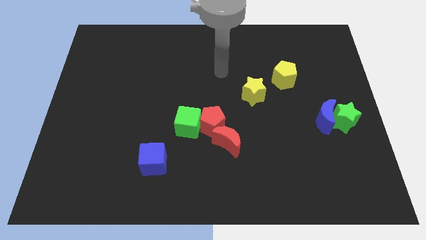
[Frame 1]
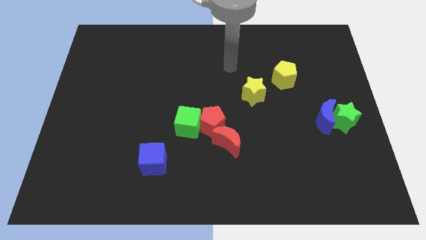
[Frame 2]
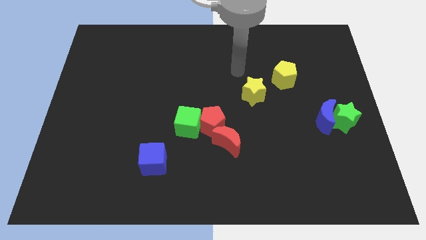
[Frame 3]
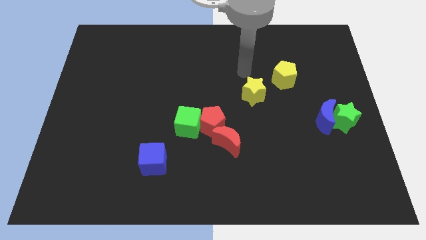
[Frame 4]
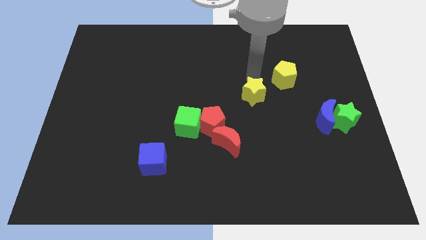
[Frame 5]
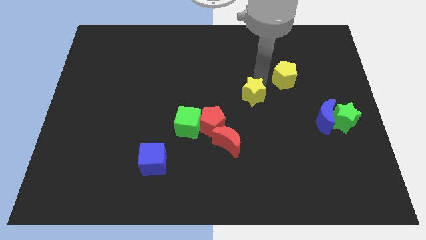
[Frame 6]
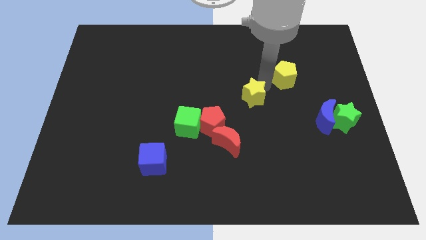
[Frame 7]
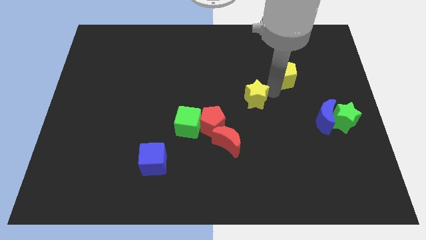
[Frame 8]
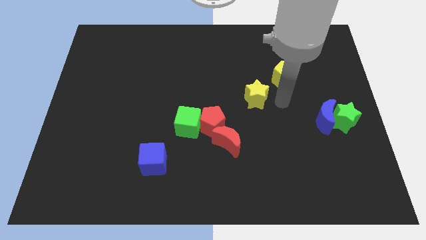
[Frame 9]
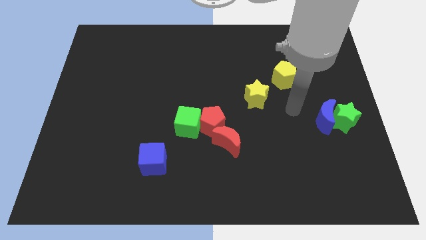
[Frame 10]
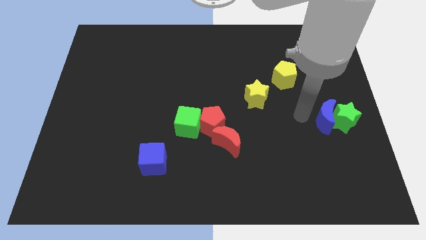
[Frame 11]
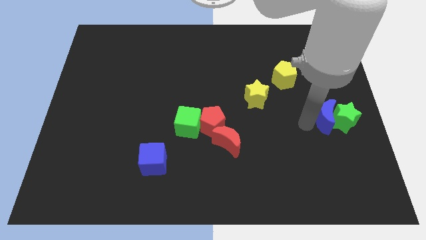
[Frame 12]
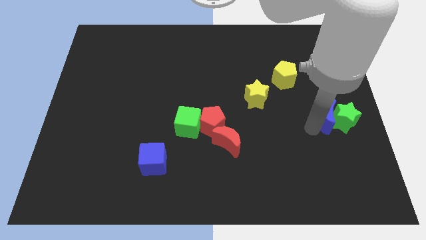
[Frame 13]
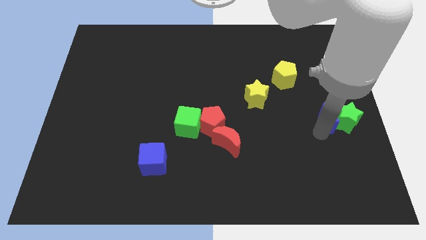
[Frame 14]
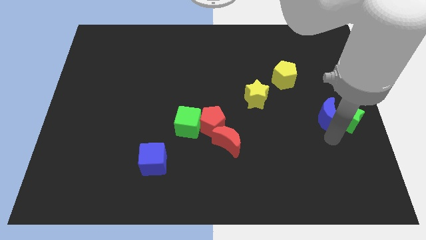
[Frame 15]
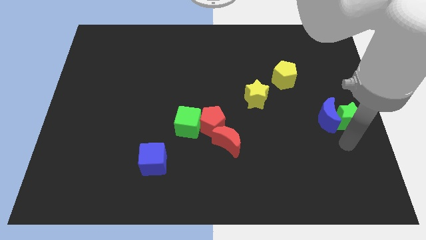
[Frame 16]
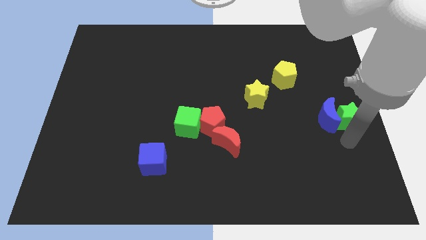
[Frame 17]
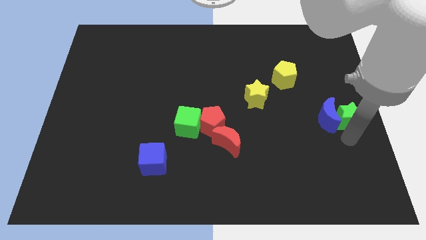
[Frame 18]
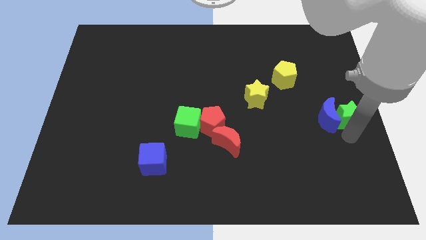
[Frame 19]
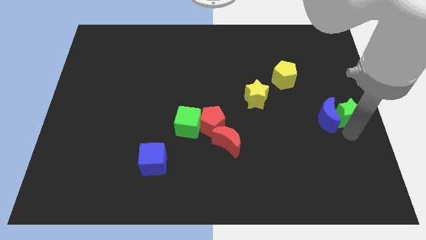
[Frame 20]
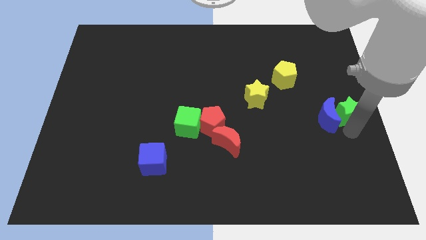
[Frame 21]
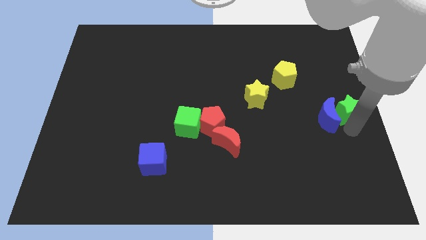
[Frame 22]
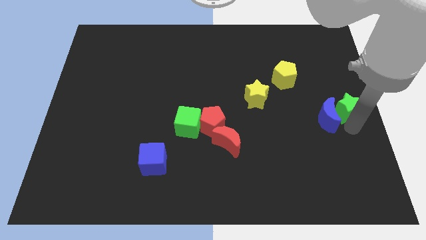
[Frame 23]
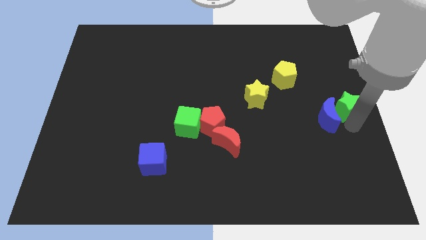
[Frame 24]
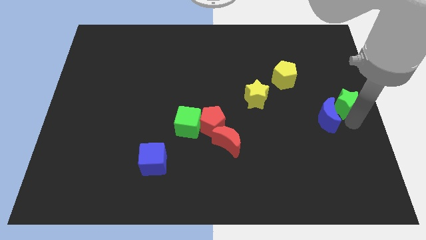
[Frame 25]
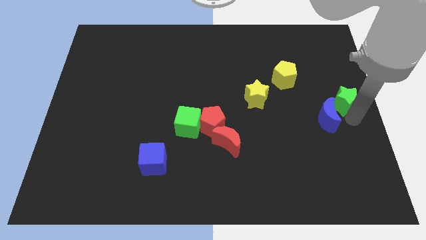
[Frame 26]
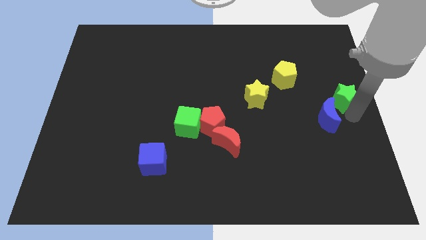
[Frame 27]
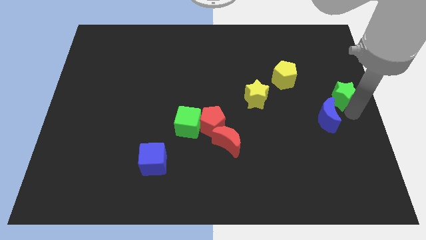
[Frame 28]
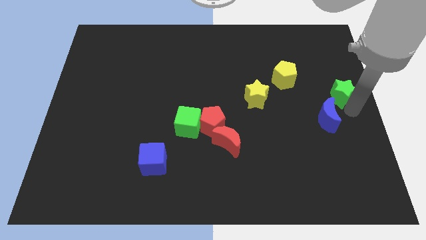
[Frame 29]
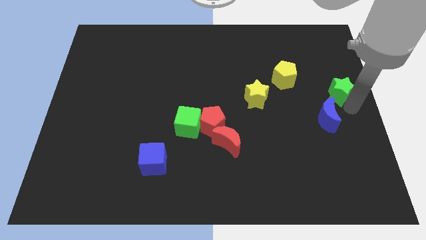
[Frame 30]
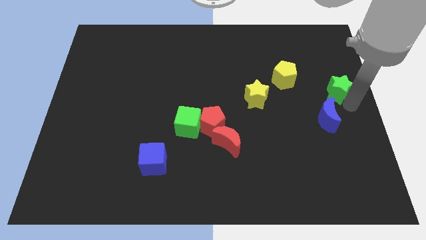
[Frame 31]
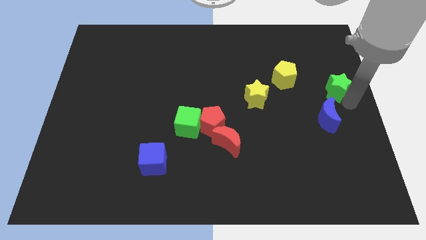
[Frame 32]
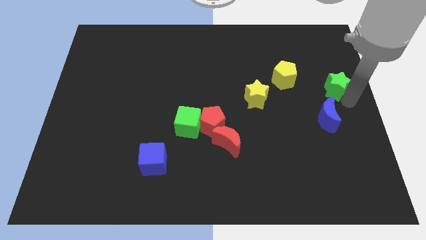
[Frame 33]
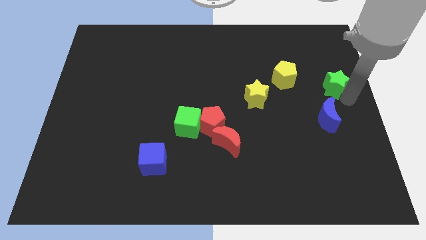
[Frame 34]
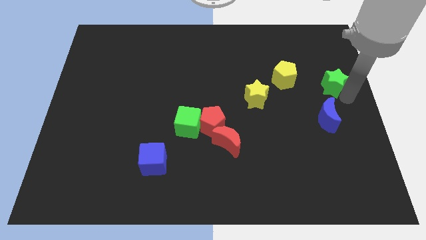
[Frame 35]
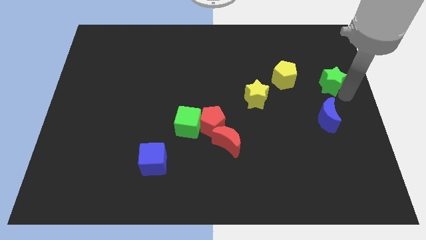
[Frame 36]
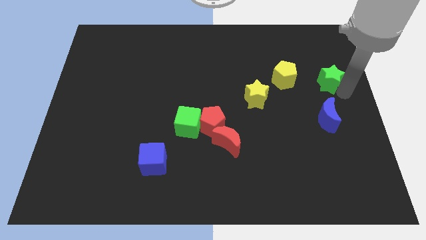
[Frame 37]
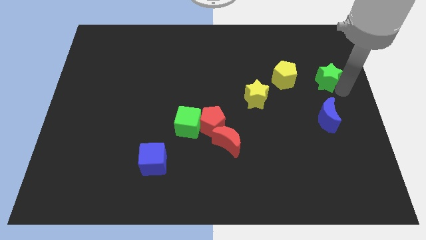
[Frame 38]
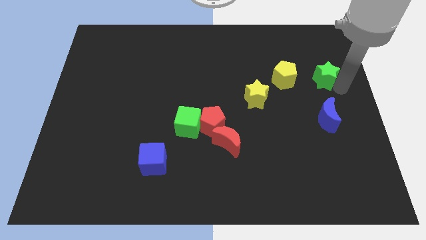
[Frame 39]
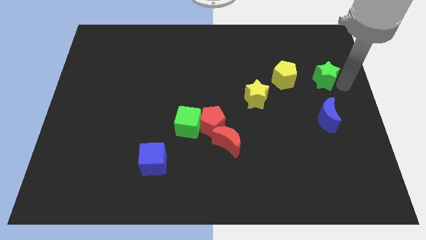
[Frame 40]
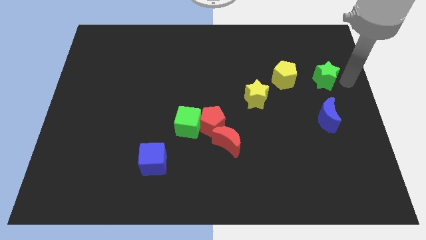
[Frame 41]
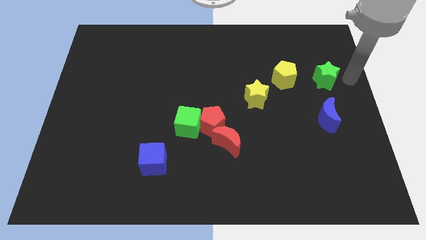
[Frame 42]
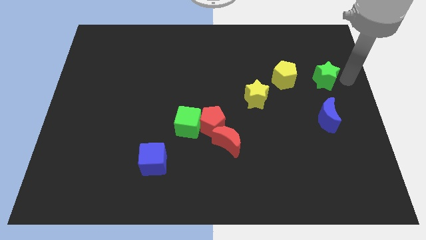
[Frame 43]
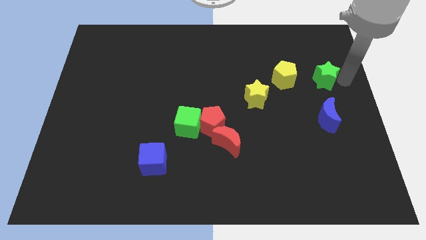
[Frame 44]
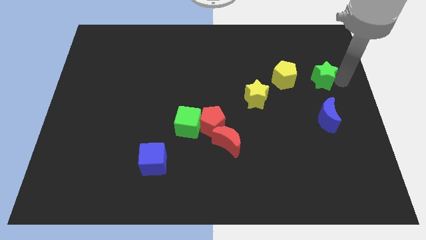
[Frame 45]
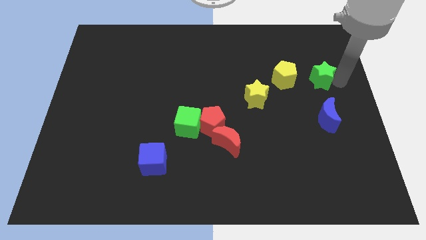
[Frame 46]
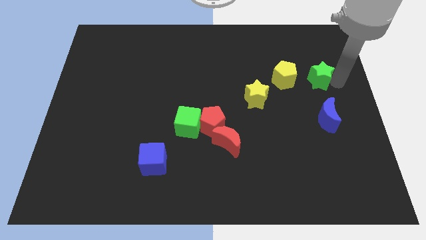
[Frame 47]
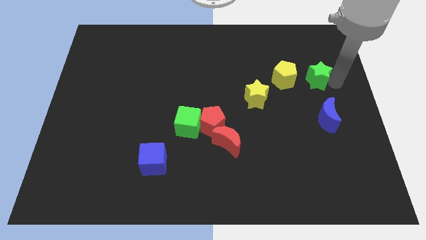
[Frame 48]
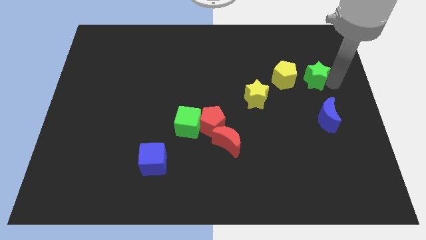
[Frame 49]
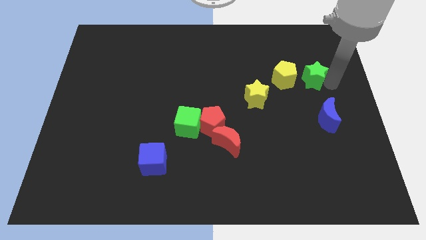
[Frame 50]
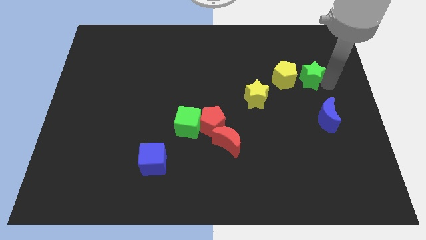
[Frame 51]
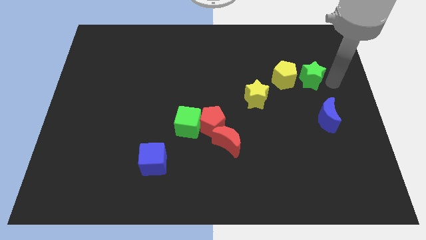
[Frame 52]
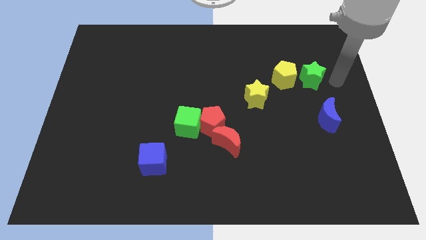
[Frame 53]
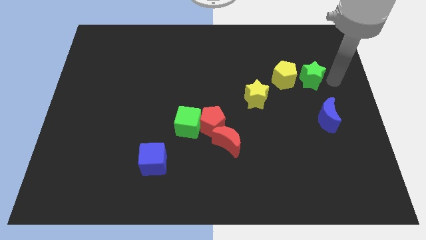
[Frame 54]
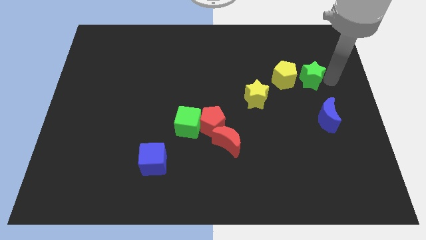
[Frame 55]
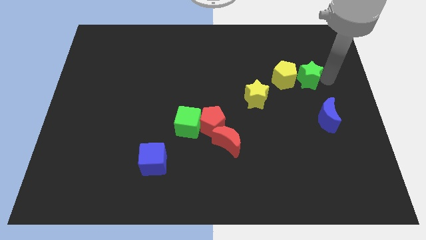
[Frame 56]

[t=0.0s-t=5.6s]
put the green star towards the yellow pentagon

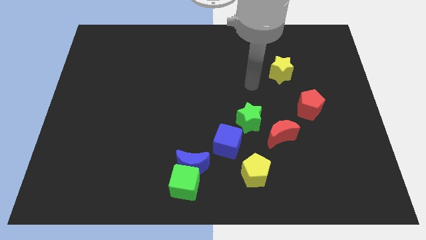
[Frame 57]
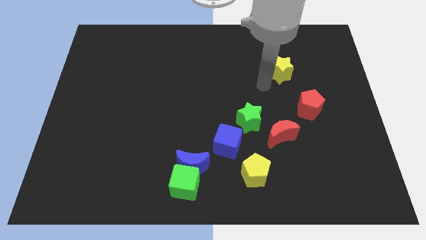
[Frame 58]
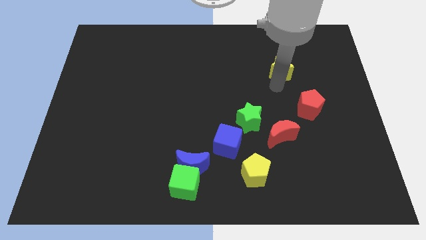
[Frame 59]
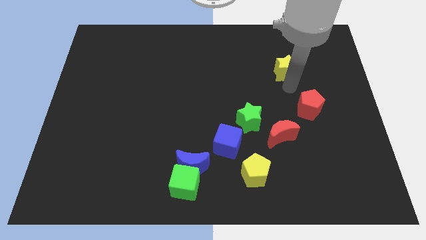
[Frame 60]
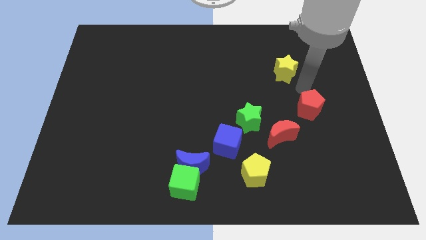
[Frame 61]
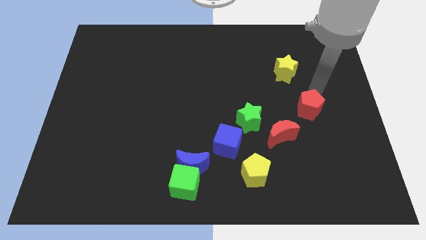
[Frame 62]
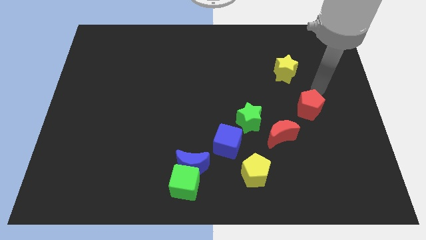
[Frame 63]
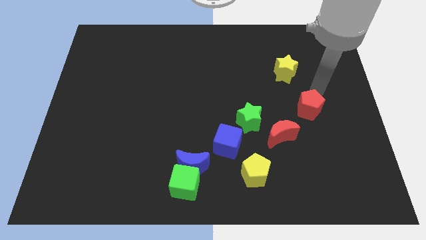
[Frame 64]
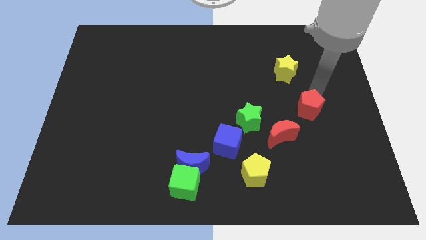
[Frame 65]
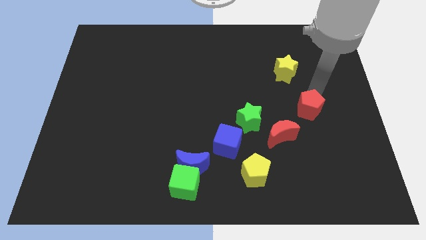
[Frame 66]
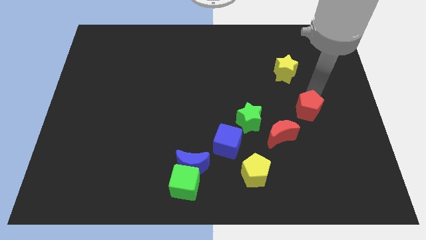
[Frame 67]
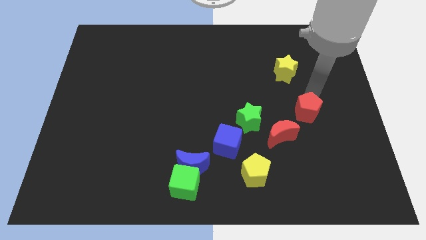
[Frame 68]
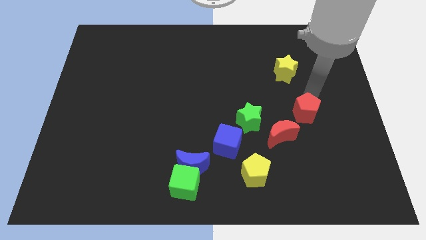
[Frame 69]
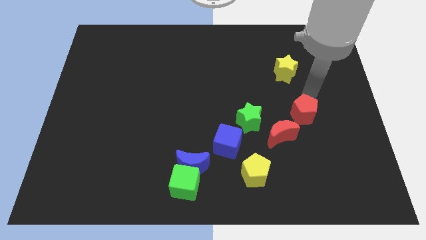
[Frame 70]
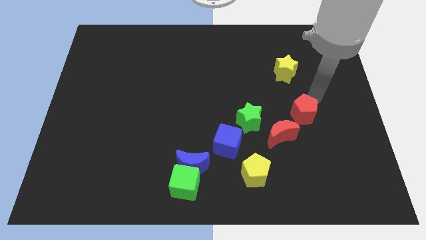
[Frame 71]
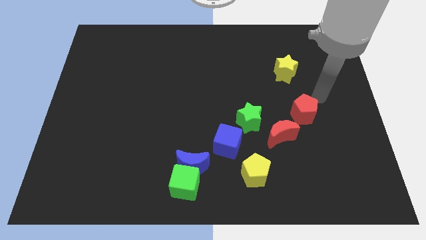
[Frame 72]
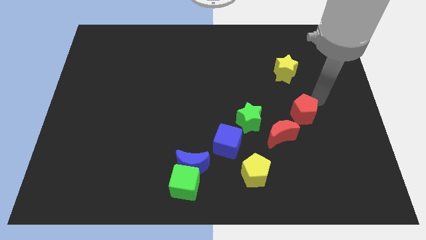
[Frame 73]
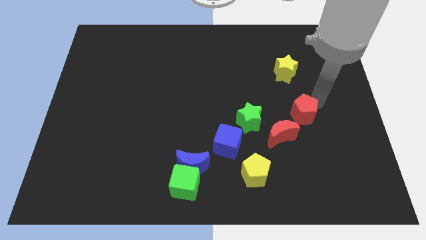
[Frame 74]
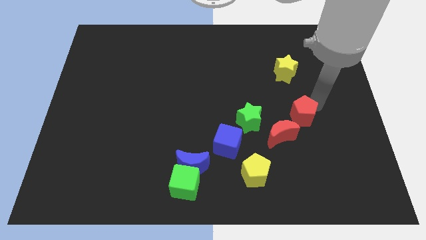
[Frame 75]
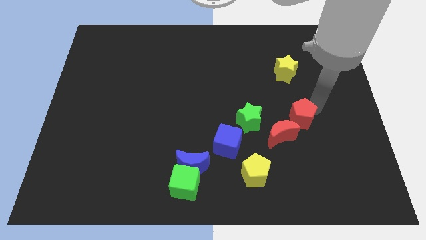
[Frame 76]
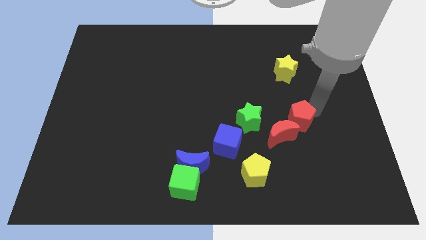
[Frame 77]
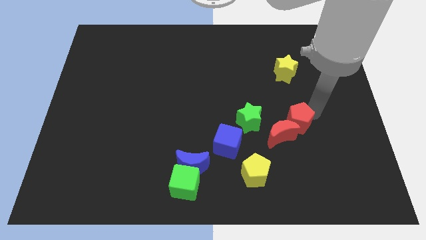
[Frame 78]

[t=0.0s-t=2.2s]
put the red pentagon next to the red moon
